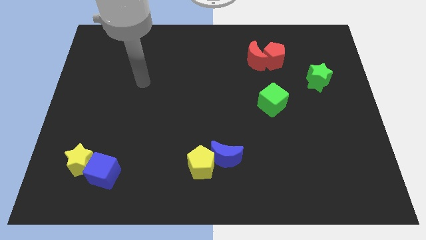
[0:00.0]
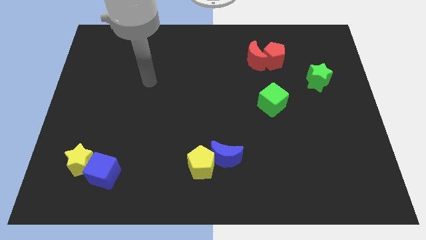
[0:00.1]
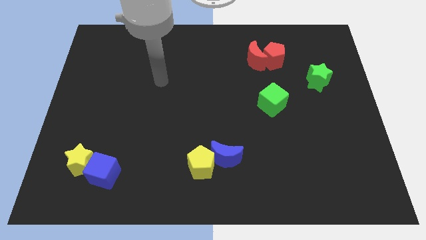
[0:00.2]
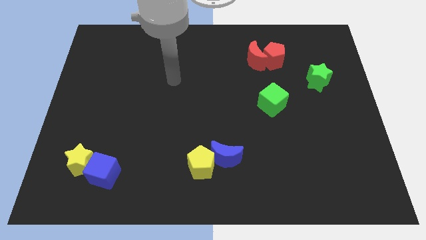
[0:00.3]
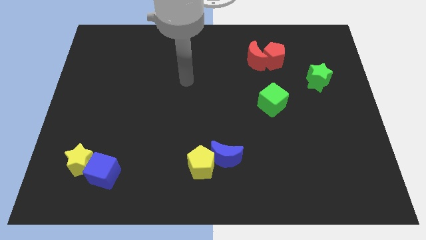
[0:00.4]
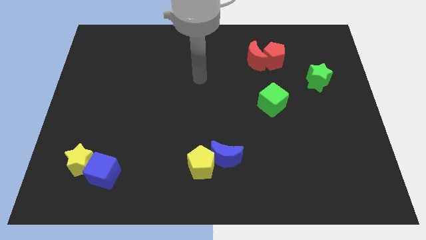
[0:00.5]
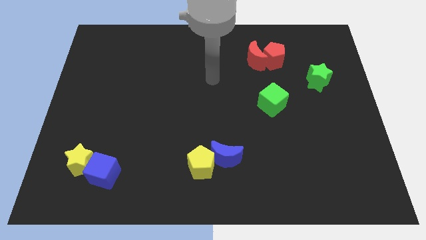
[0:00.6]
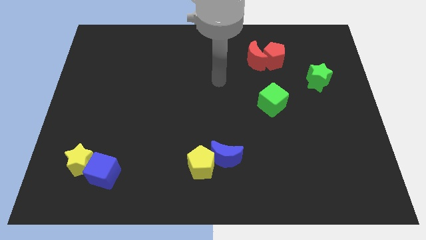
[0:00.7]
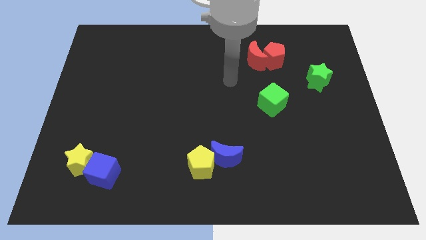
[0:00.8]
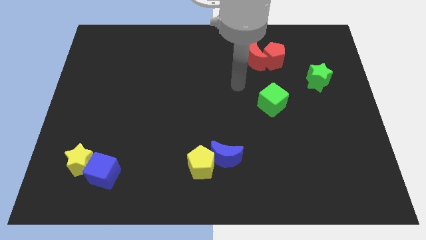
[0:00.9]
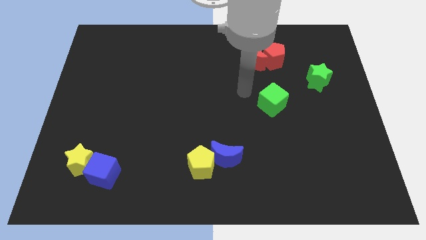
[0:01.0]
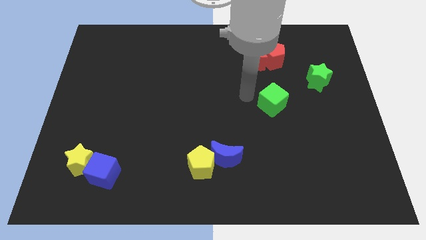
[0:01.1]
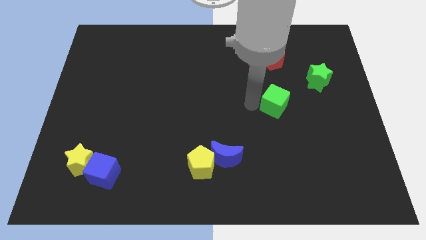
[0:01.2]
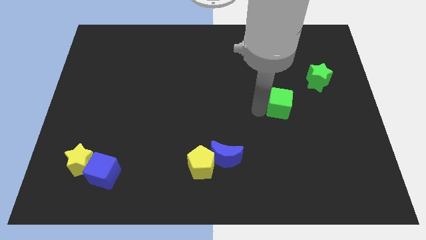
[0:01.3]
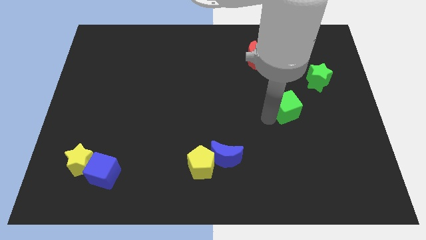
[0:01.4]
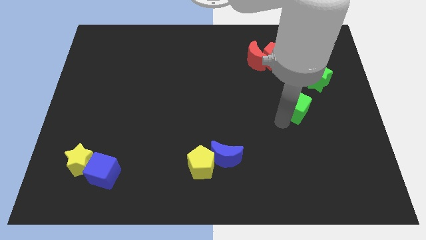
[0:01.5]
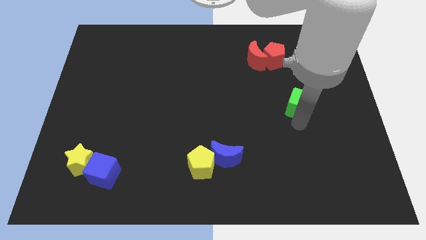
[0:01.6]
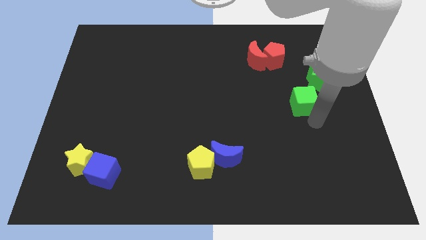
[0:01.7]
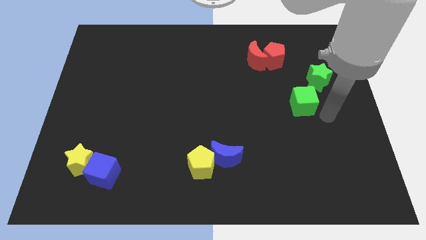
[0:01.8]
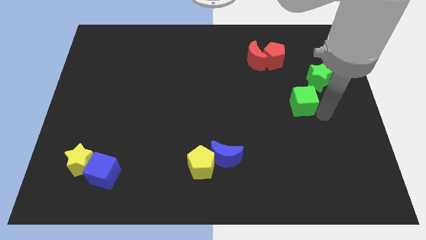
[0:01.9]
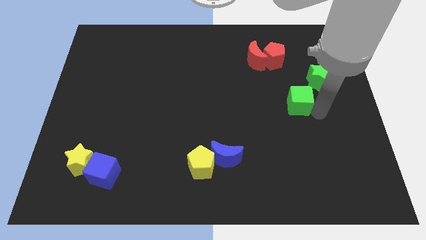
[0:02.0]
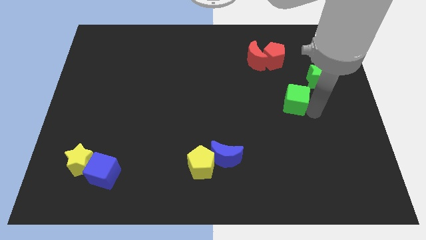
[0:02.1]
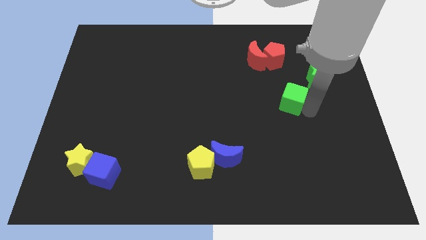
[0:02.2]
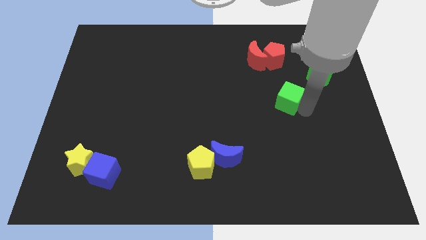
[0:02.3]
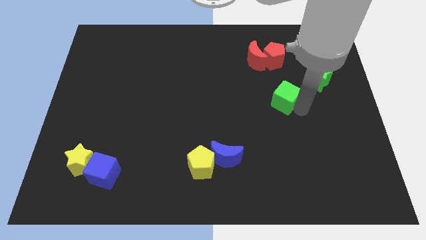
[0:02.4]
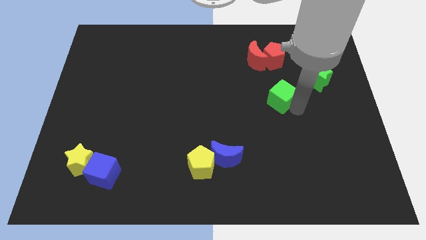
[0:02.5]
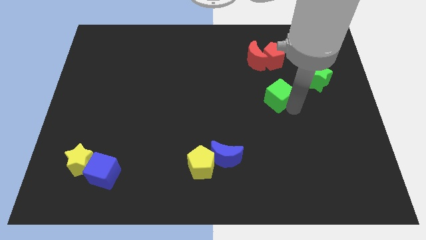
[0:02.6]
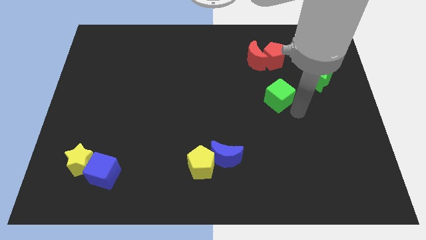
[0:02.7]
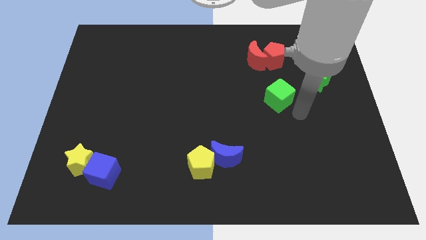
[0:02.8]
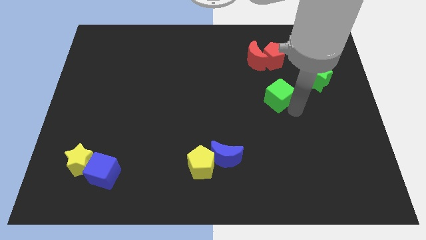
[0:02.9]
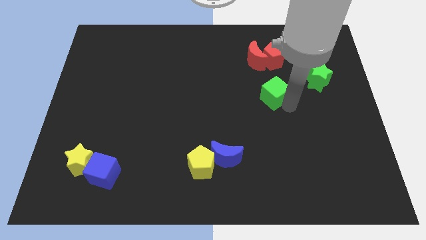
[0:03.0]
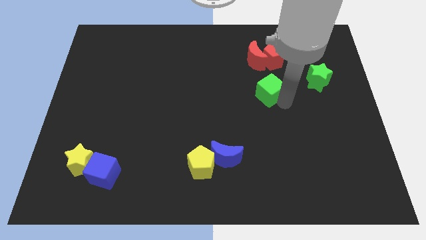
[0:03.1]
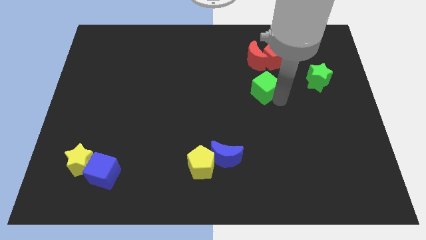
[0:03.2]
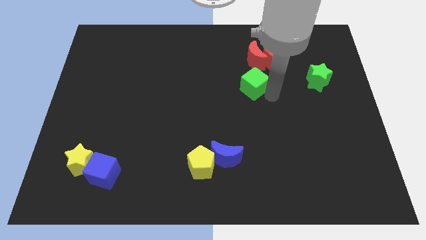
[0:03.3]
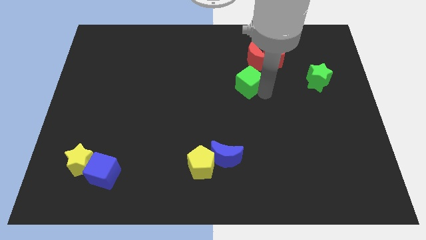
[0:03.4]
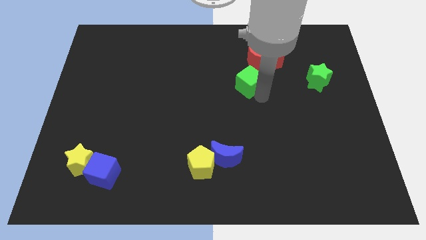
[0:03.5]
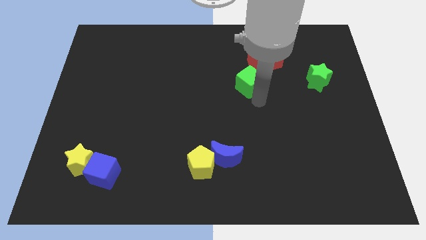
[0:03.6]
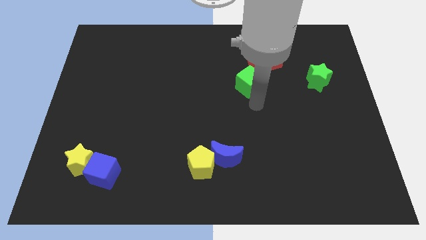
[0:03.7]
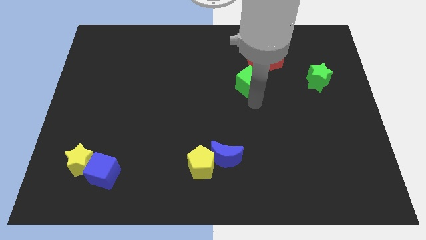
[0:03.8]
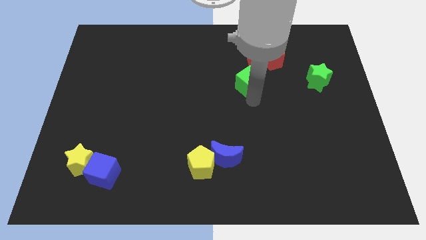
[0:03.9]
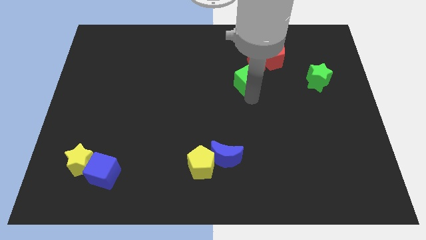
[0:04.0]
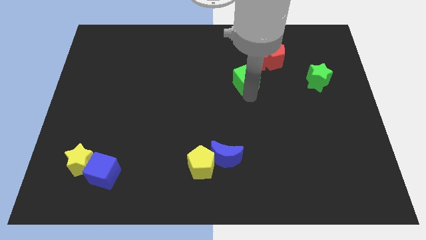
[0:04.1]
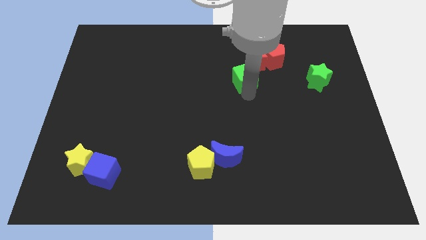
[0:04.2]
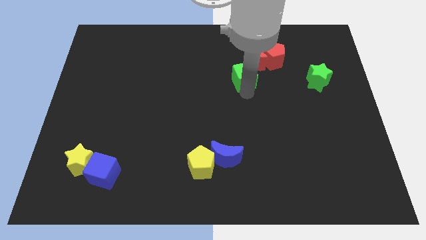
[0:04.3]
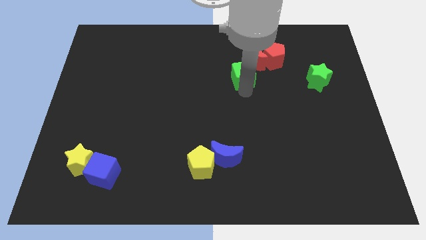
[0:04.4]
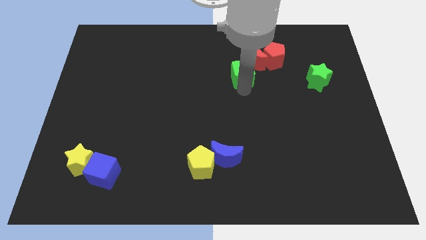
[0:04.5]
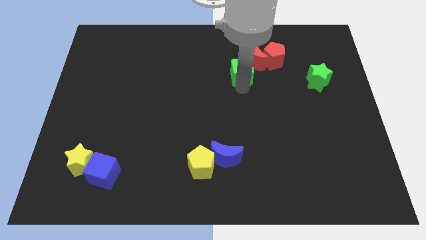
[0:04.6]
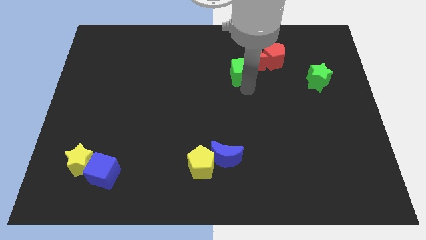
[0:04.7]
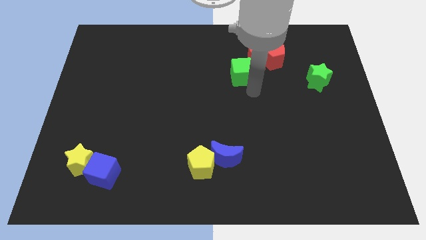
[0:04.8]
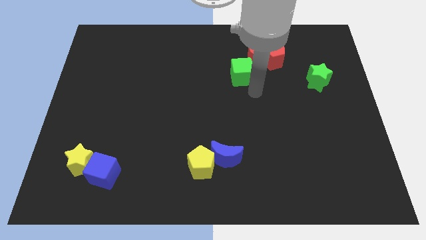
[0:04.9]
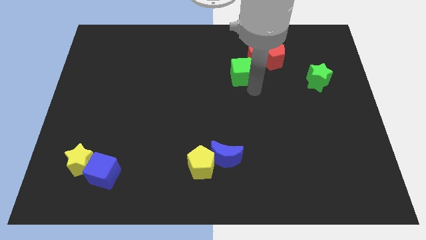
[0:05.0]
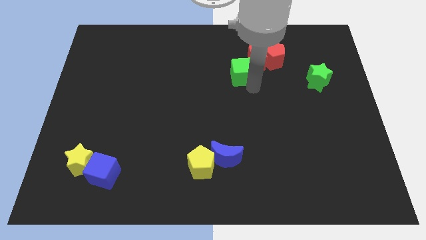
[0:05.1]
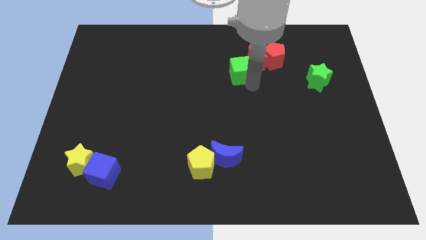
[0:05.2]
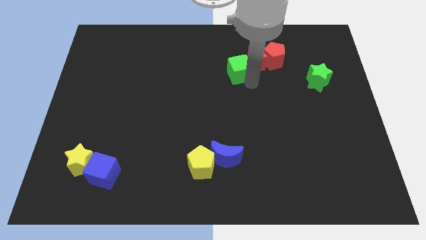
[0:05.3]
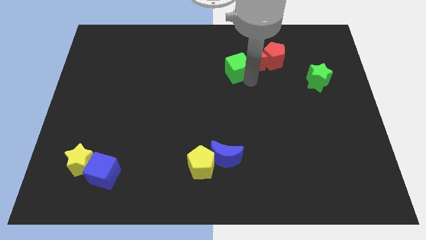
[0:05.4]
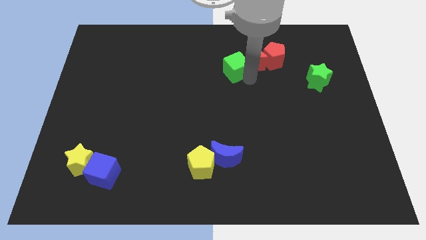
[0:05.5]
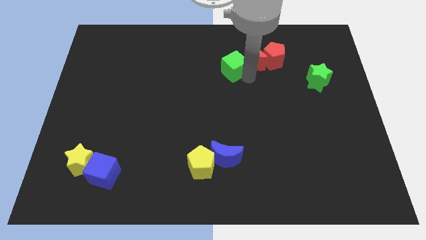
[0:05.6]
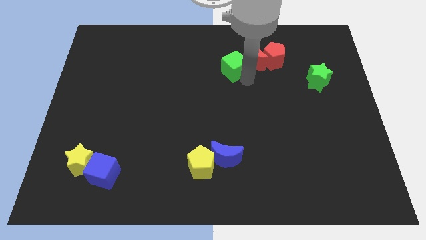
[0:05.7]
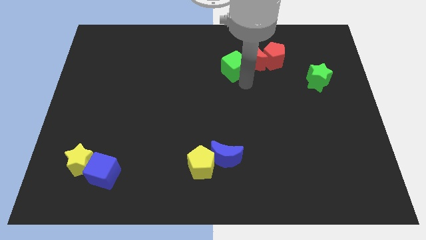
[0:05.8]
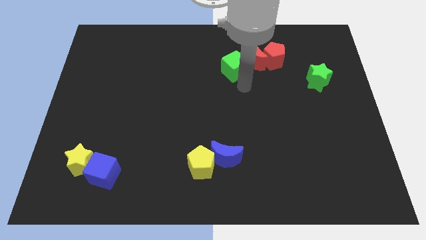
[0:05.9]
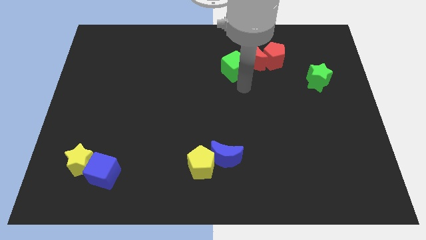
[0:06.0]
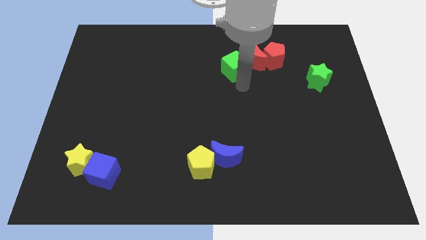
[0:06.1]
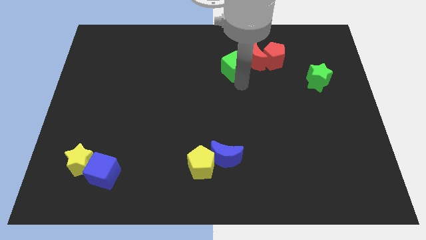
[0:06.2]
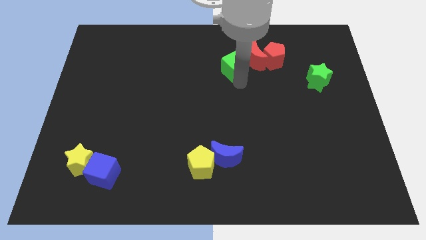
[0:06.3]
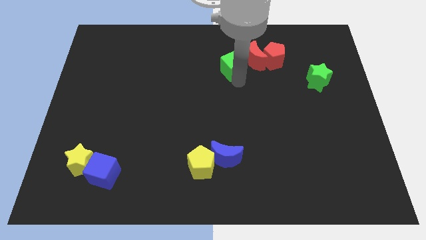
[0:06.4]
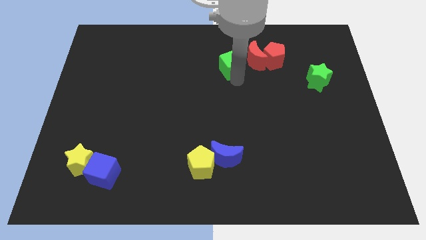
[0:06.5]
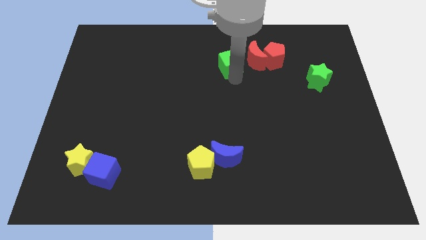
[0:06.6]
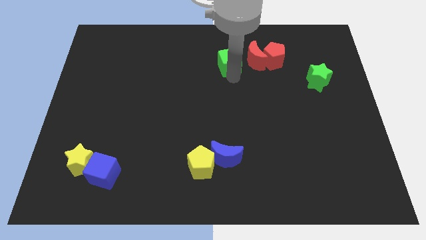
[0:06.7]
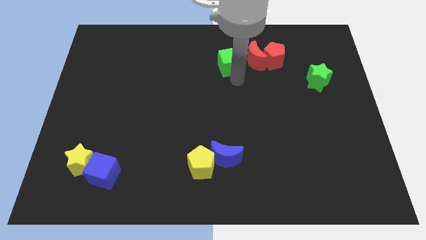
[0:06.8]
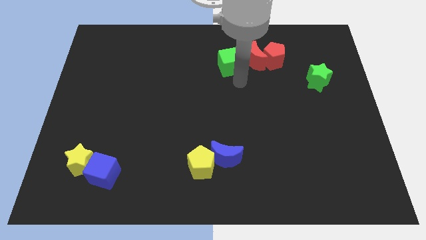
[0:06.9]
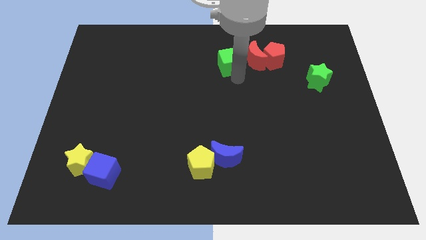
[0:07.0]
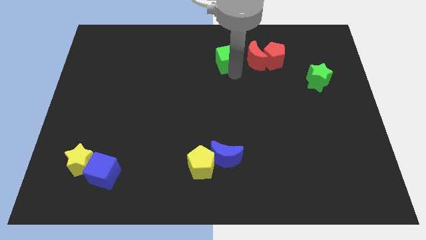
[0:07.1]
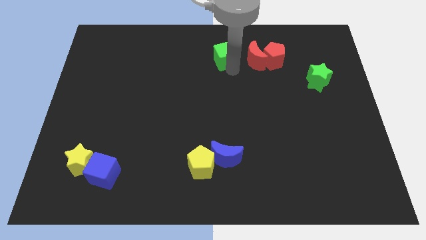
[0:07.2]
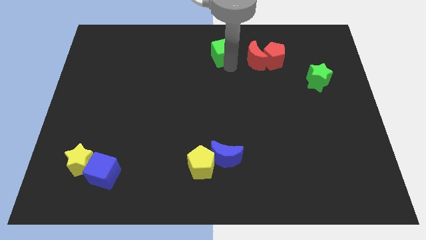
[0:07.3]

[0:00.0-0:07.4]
push the green cube to the towards your base
